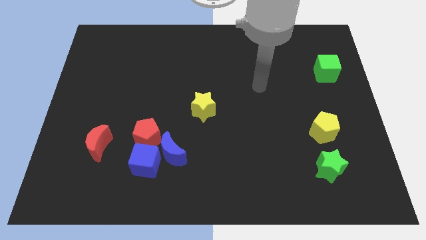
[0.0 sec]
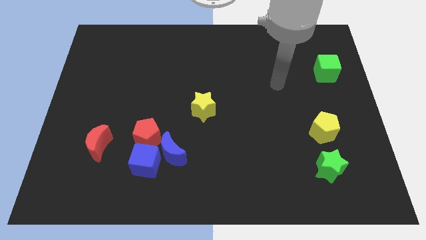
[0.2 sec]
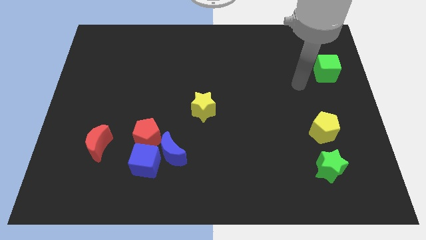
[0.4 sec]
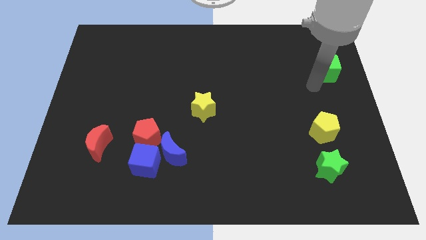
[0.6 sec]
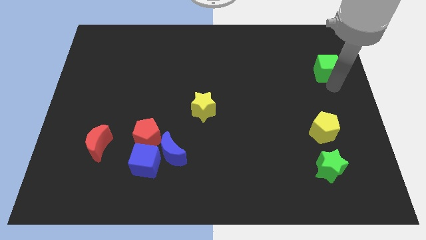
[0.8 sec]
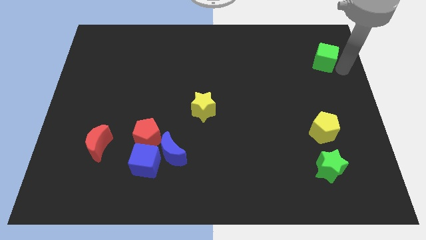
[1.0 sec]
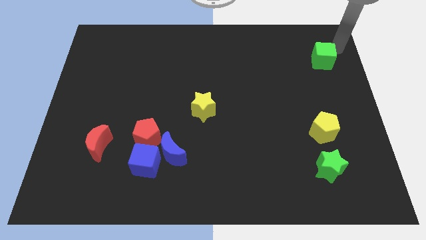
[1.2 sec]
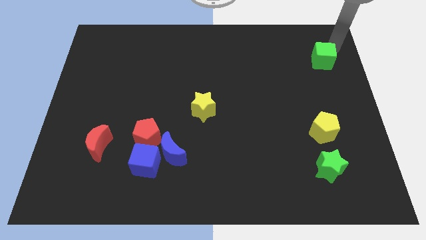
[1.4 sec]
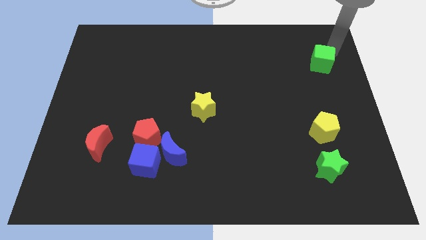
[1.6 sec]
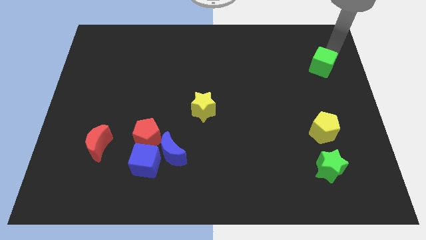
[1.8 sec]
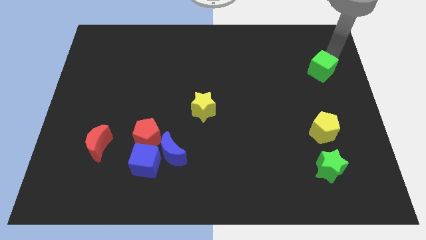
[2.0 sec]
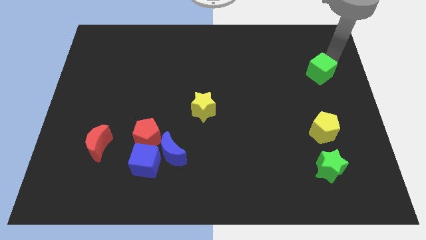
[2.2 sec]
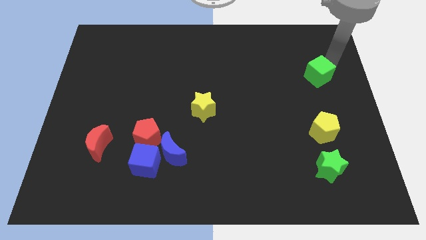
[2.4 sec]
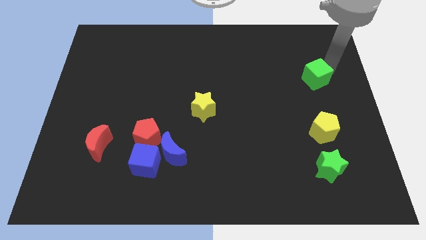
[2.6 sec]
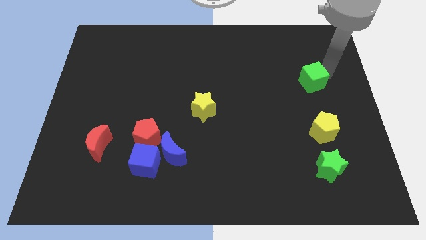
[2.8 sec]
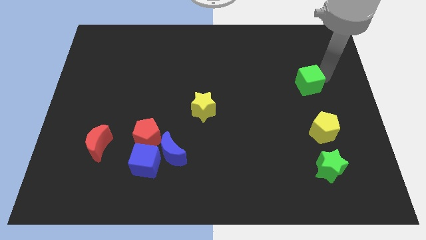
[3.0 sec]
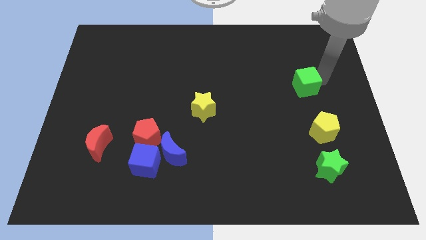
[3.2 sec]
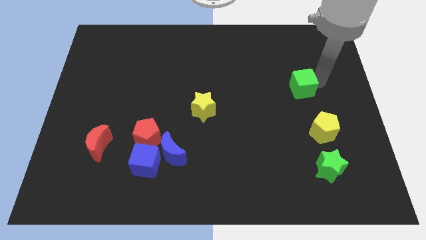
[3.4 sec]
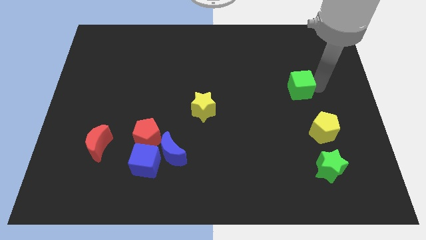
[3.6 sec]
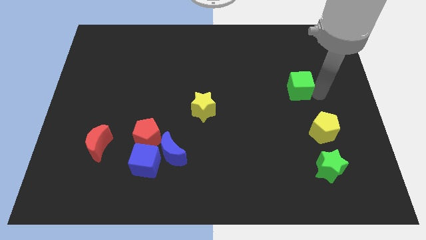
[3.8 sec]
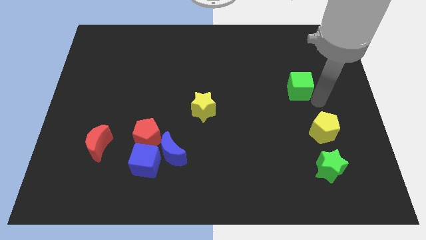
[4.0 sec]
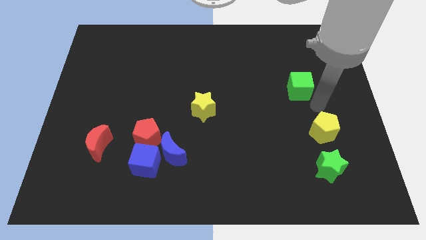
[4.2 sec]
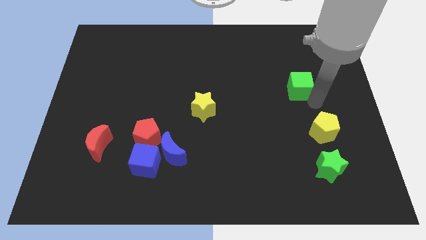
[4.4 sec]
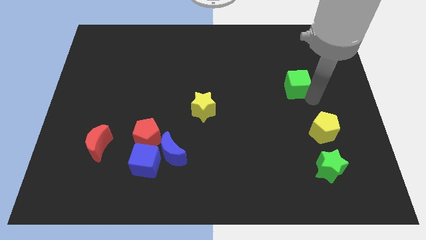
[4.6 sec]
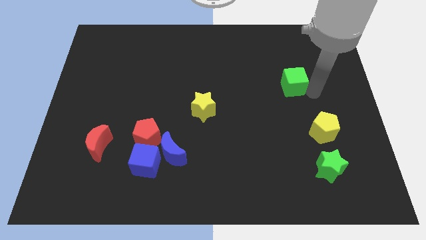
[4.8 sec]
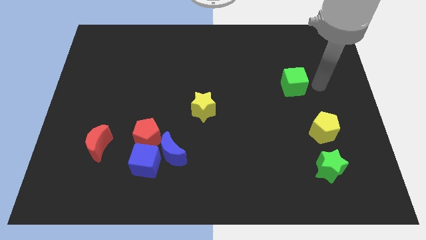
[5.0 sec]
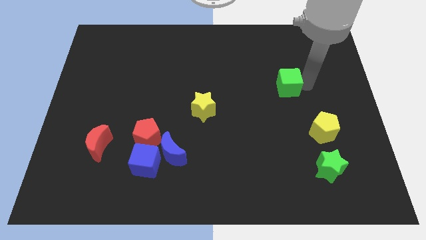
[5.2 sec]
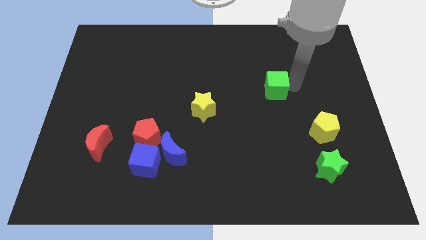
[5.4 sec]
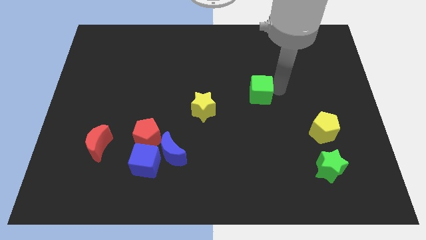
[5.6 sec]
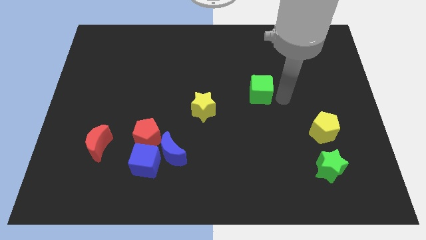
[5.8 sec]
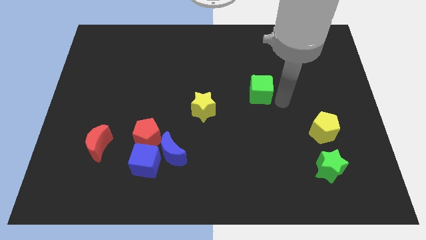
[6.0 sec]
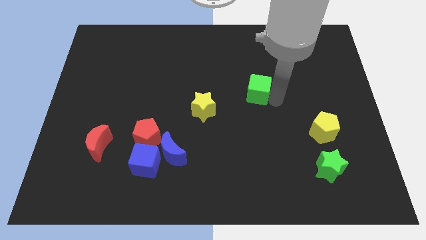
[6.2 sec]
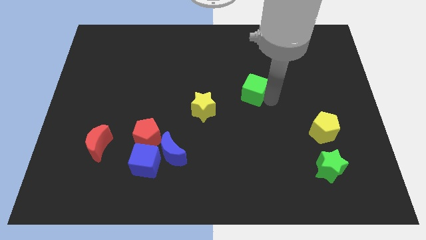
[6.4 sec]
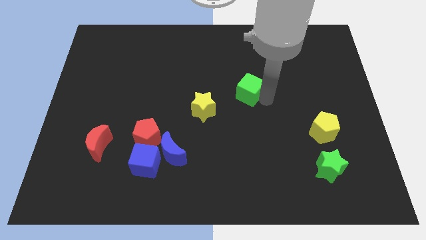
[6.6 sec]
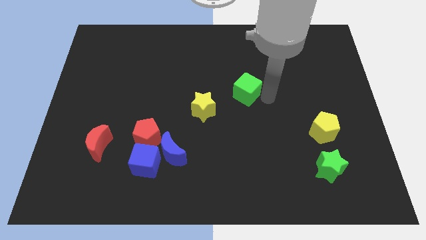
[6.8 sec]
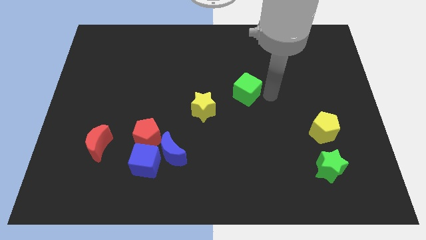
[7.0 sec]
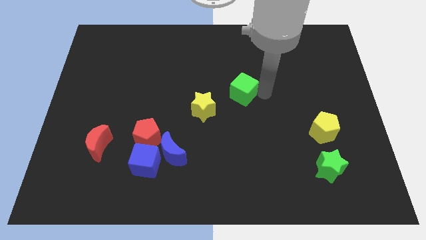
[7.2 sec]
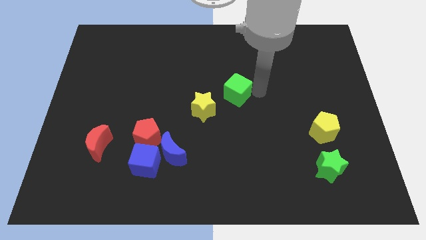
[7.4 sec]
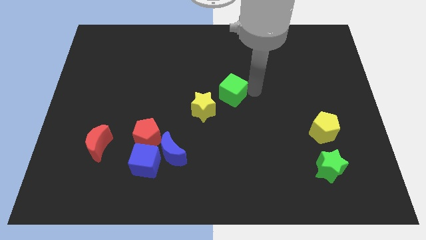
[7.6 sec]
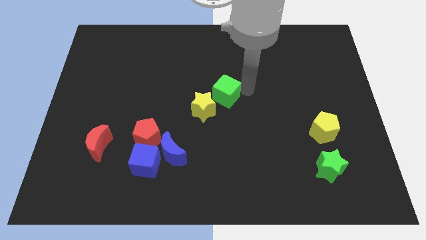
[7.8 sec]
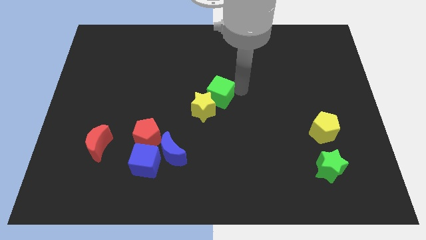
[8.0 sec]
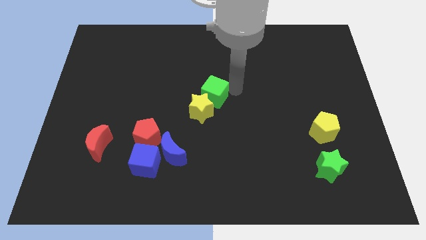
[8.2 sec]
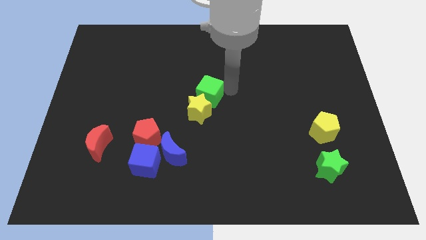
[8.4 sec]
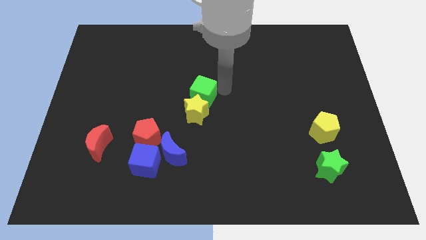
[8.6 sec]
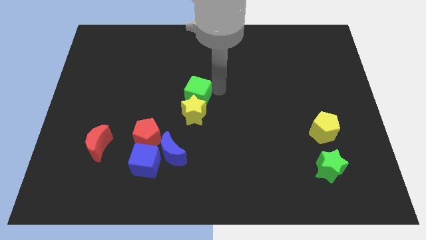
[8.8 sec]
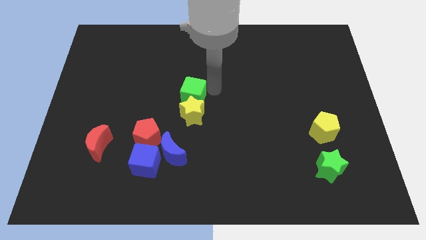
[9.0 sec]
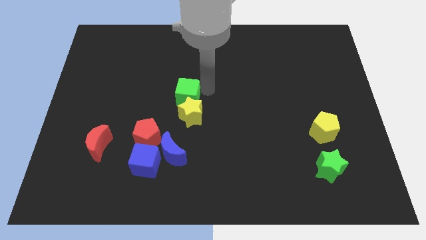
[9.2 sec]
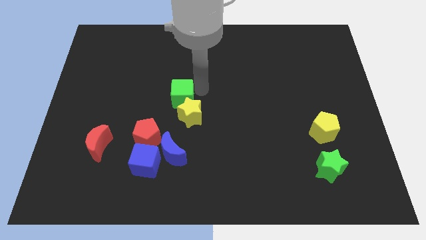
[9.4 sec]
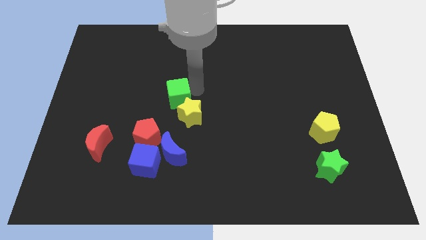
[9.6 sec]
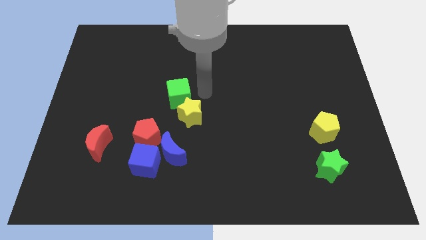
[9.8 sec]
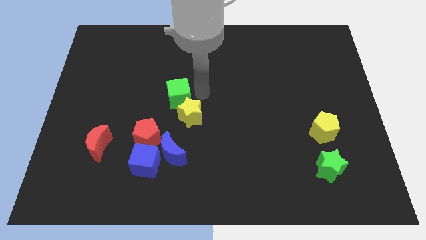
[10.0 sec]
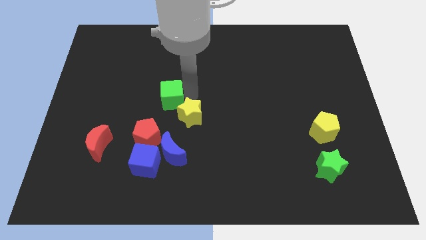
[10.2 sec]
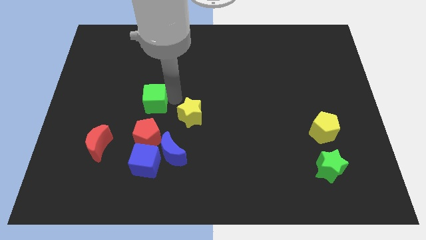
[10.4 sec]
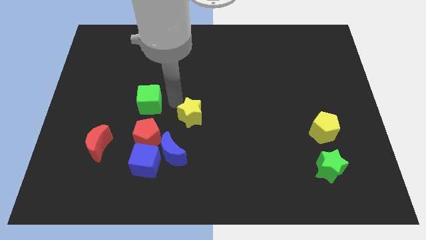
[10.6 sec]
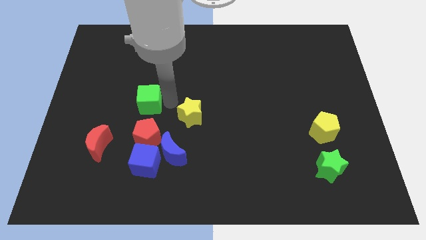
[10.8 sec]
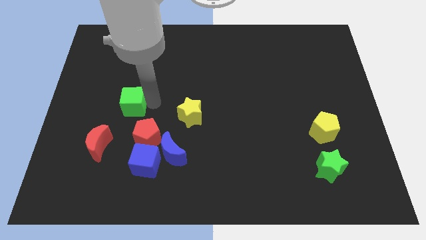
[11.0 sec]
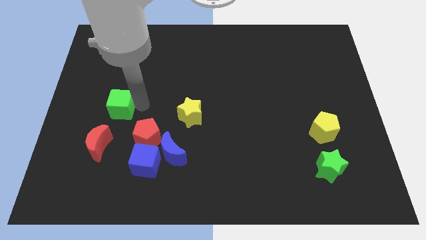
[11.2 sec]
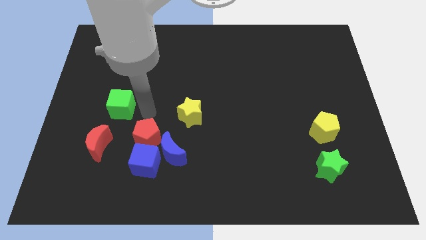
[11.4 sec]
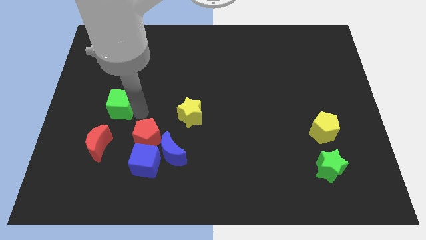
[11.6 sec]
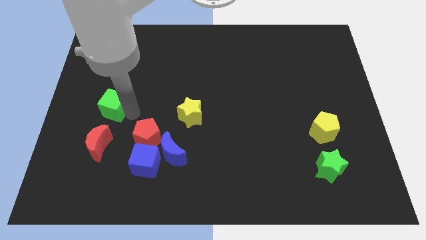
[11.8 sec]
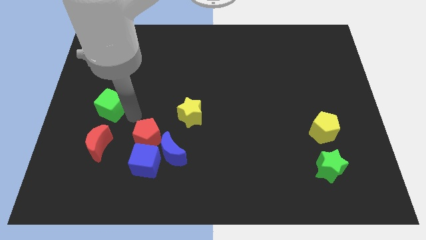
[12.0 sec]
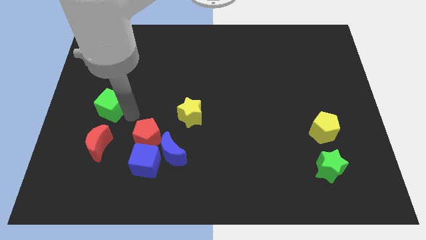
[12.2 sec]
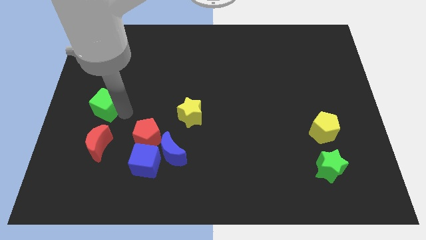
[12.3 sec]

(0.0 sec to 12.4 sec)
move the green cube to the left side of the board

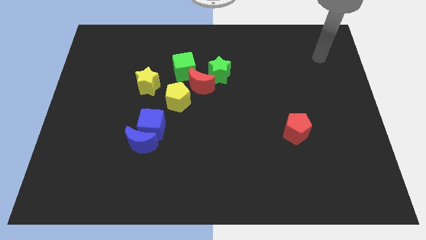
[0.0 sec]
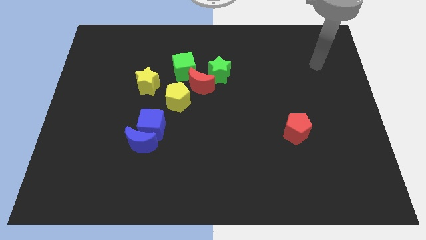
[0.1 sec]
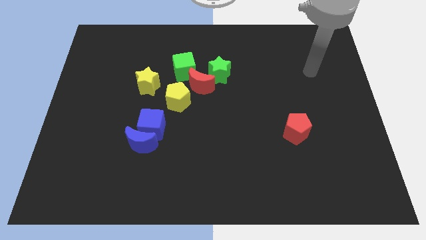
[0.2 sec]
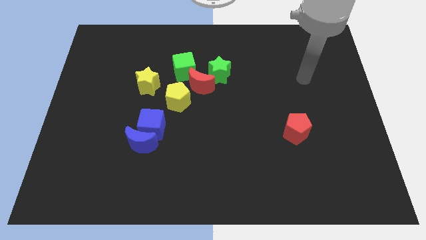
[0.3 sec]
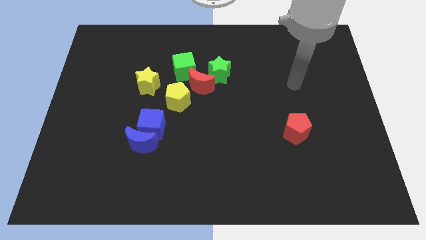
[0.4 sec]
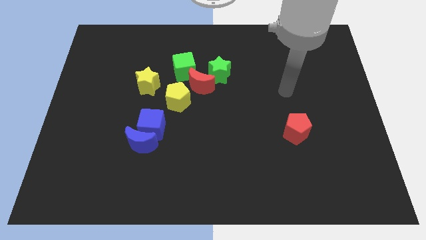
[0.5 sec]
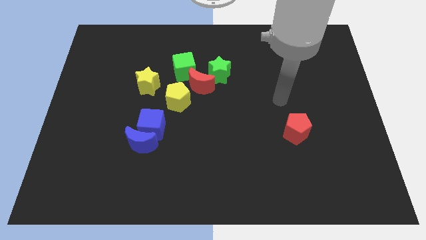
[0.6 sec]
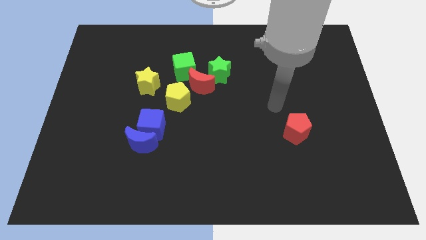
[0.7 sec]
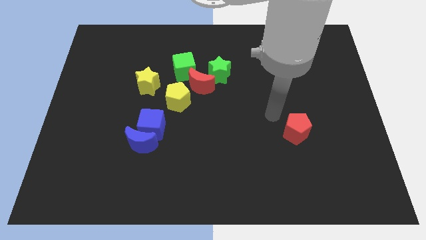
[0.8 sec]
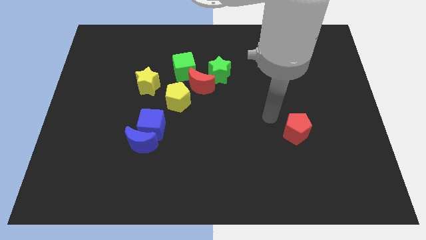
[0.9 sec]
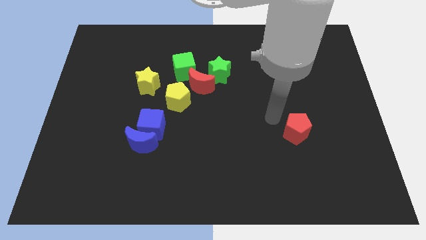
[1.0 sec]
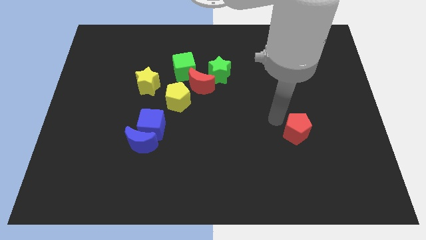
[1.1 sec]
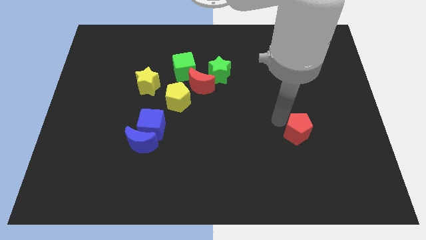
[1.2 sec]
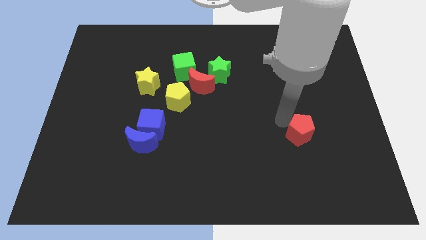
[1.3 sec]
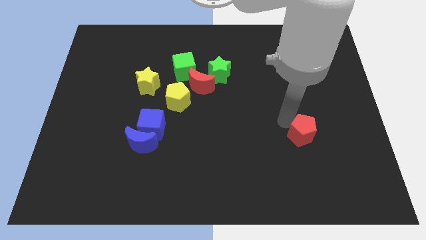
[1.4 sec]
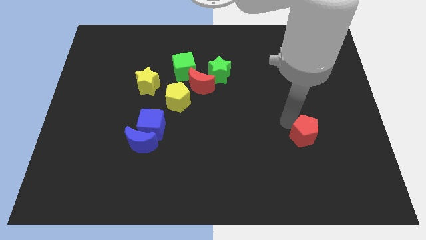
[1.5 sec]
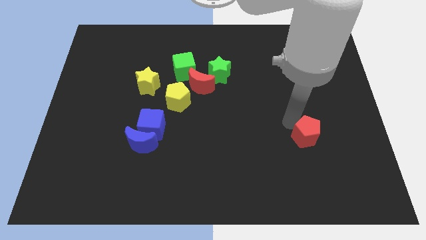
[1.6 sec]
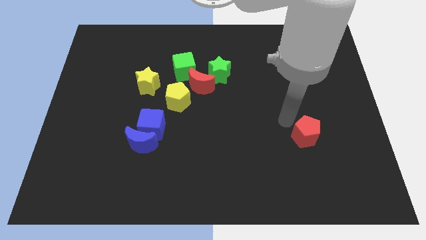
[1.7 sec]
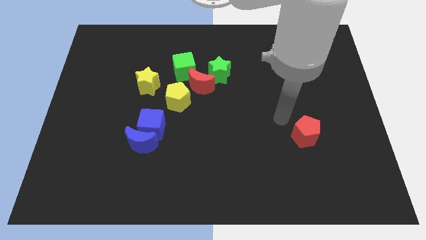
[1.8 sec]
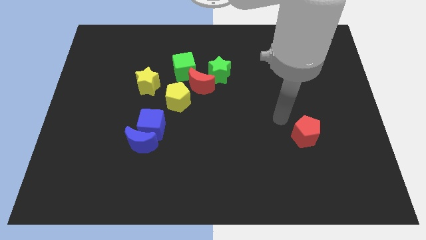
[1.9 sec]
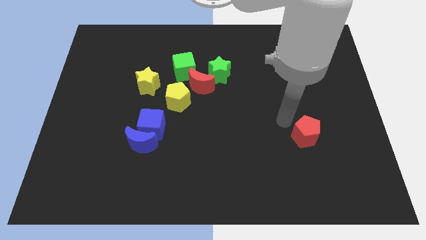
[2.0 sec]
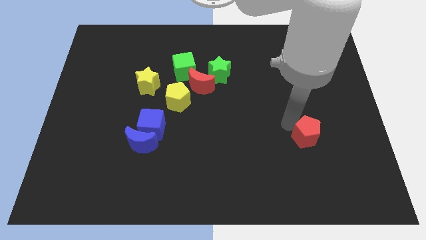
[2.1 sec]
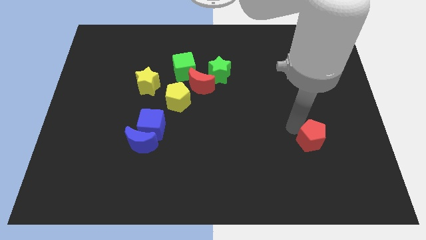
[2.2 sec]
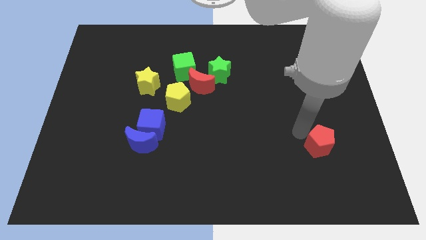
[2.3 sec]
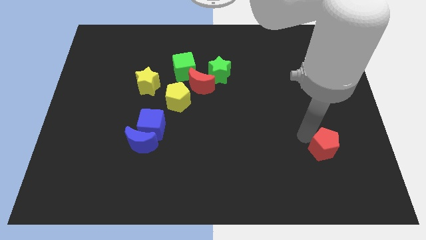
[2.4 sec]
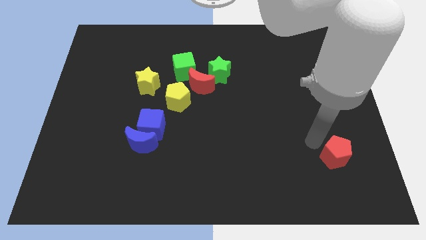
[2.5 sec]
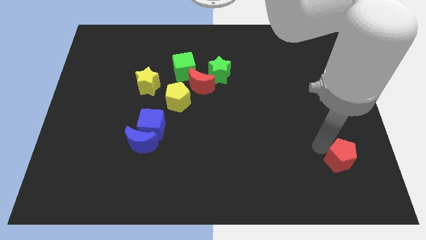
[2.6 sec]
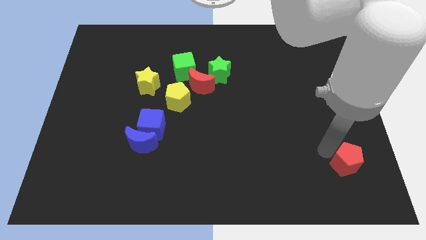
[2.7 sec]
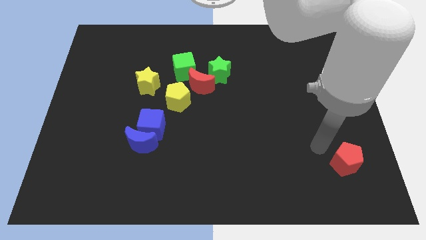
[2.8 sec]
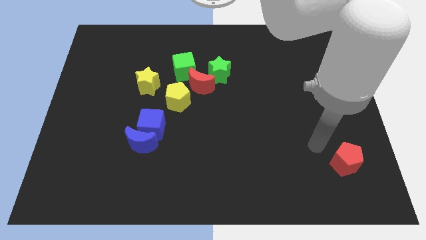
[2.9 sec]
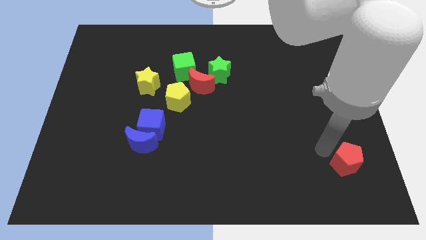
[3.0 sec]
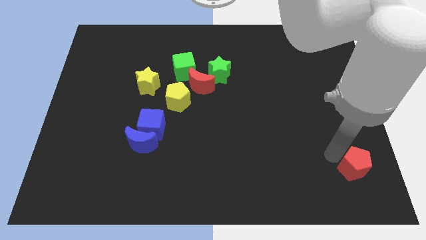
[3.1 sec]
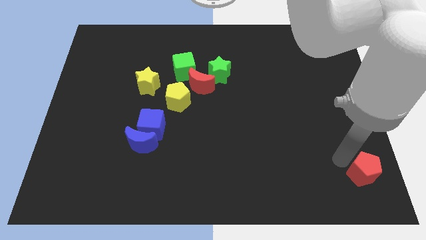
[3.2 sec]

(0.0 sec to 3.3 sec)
move the red pentagon to the bottom right of the board
